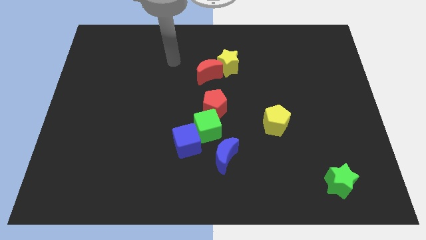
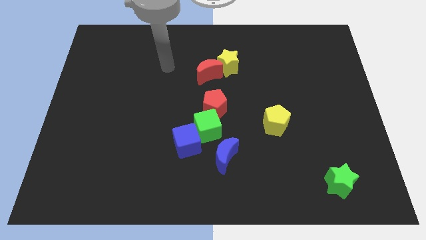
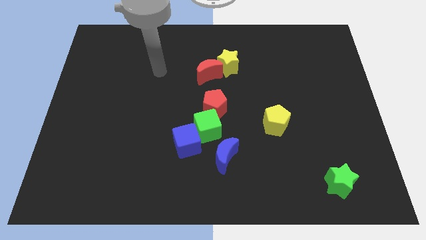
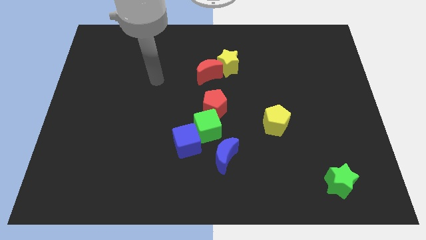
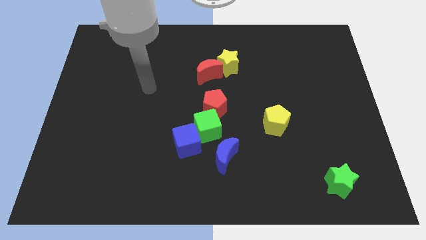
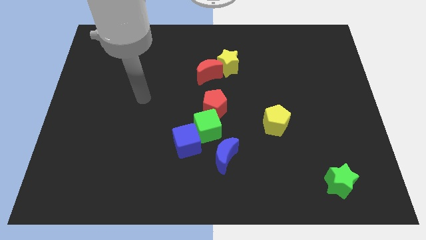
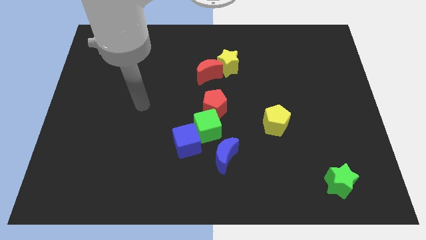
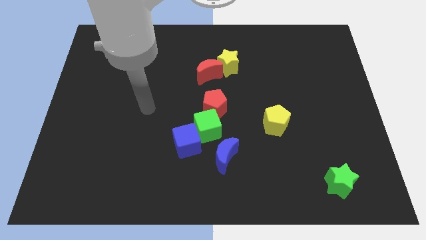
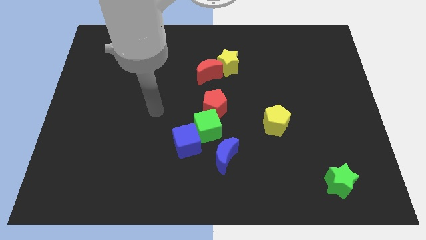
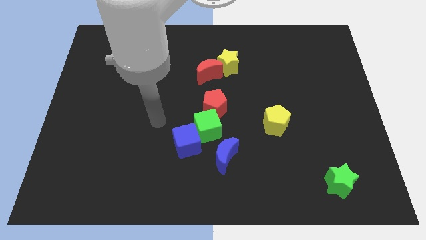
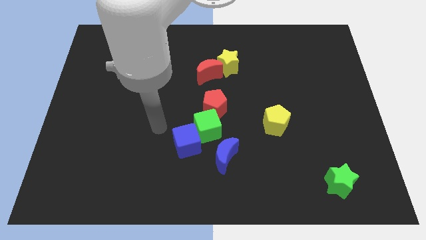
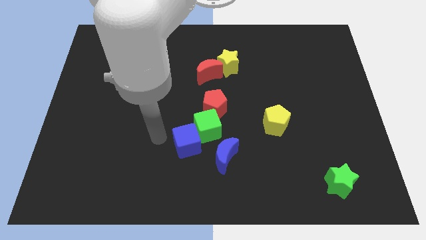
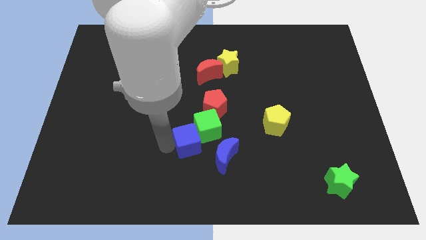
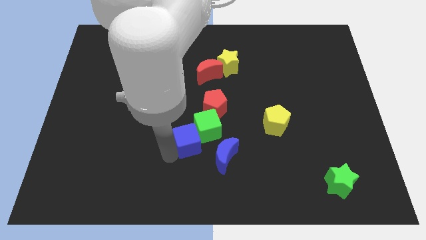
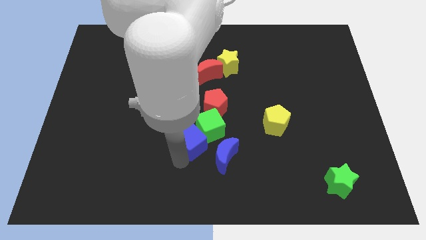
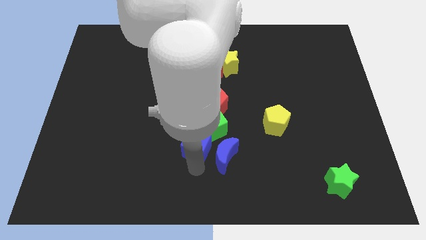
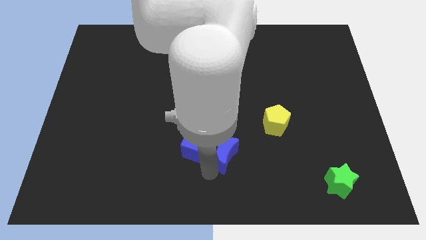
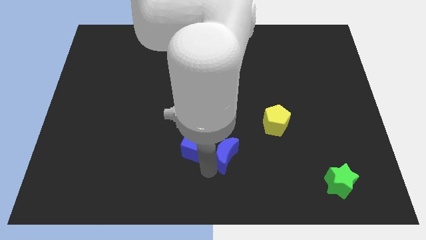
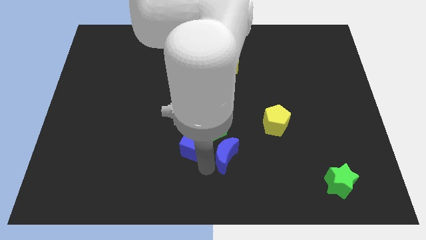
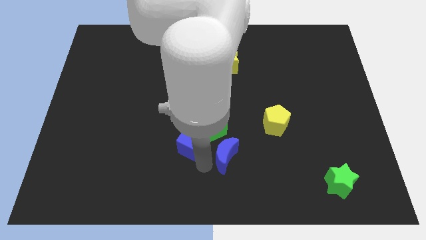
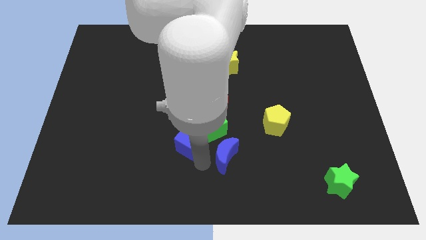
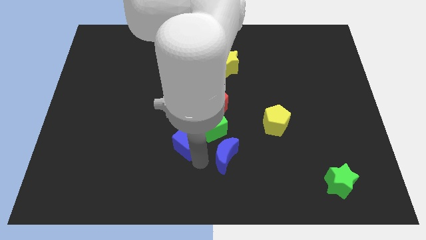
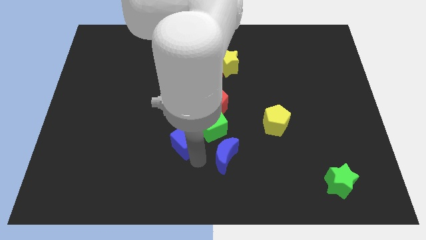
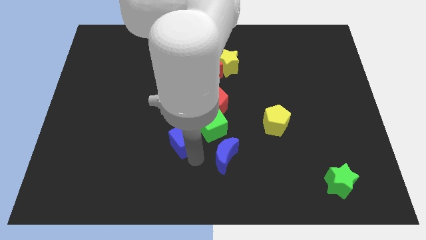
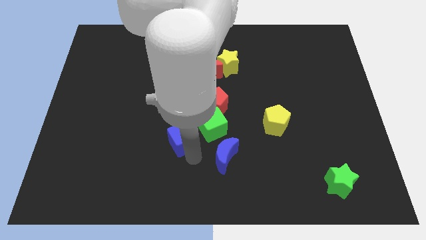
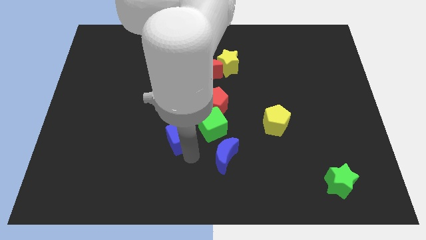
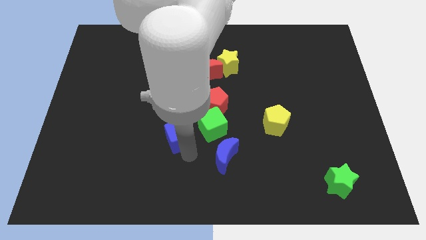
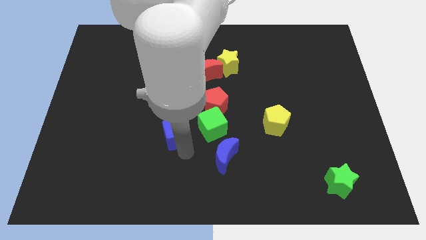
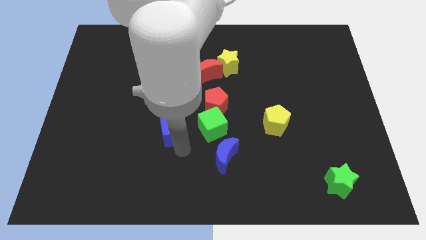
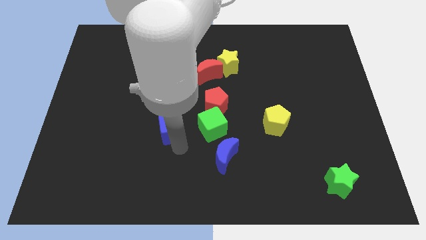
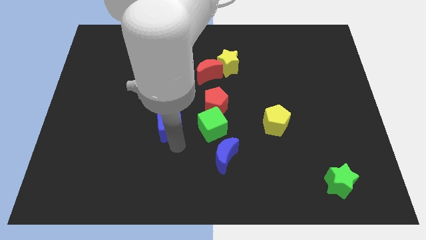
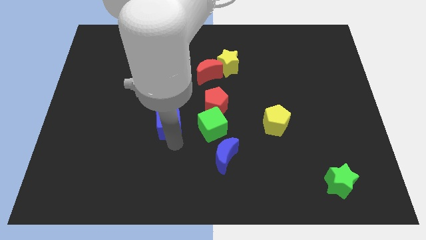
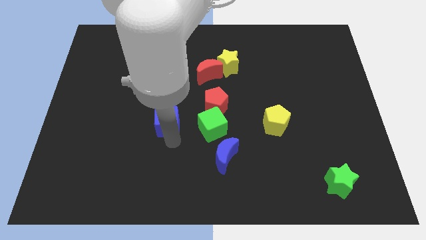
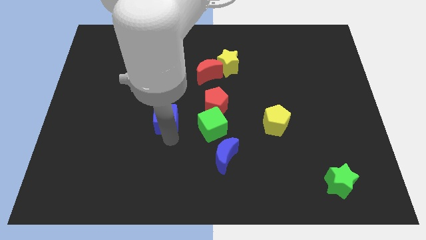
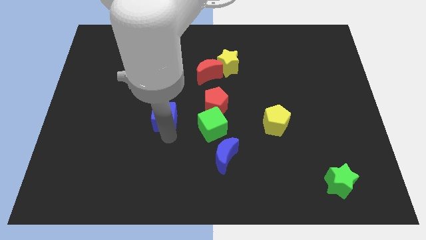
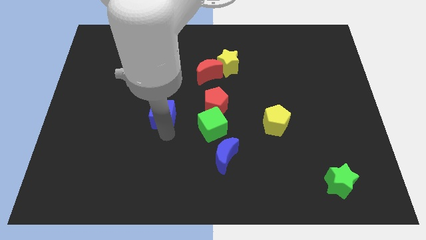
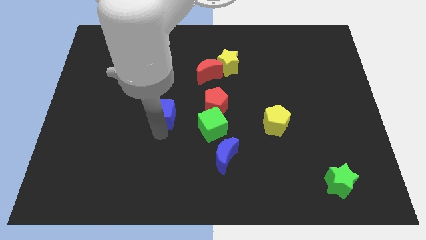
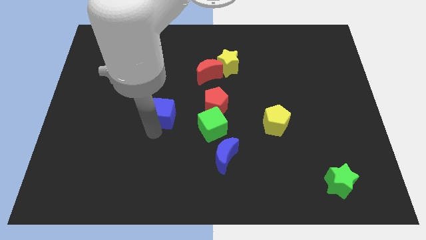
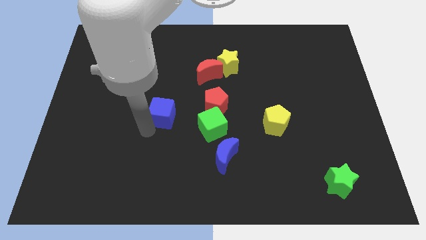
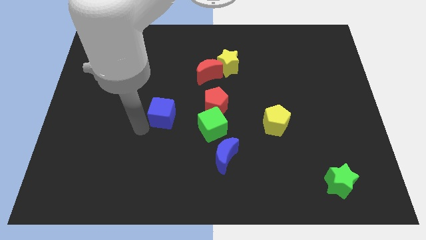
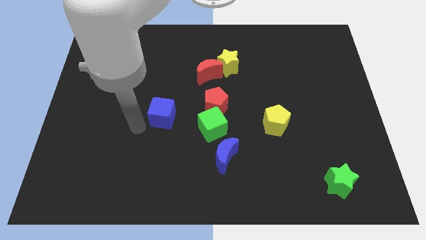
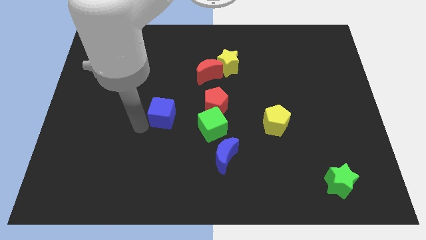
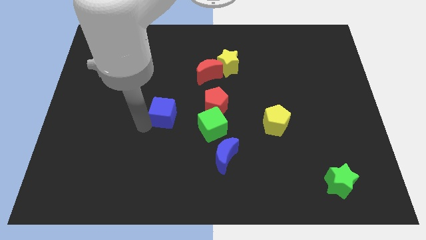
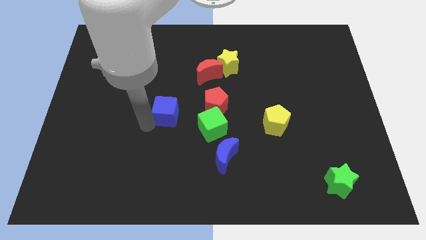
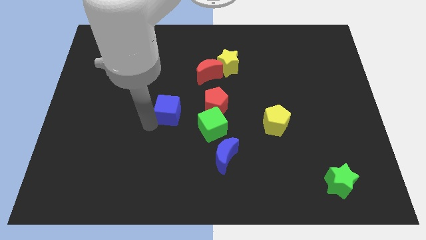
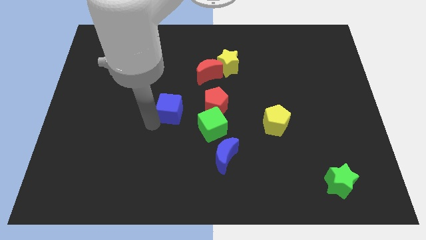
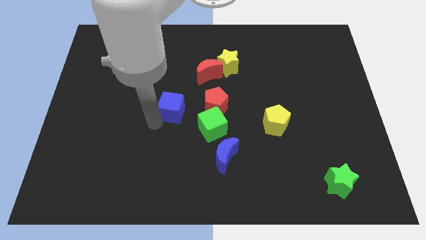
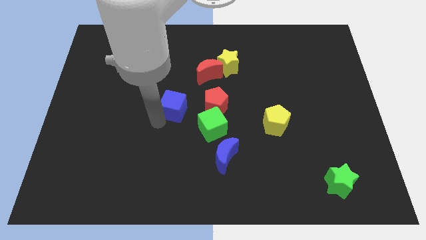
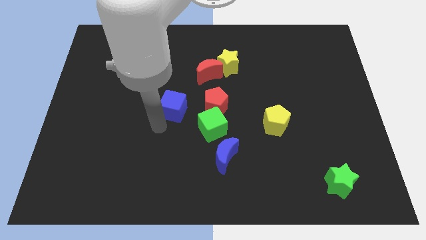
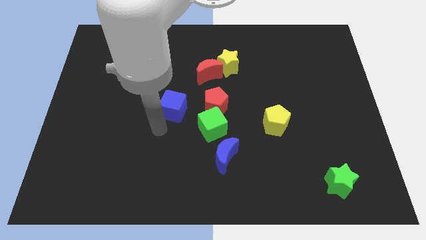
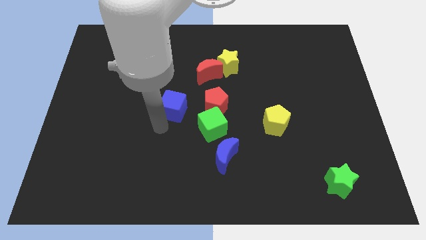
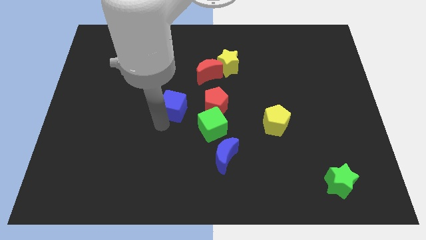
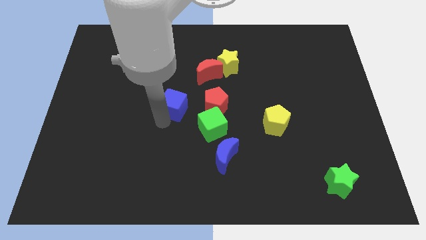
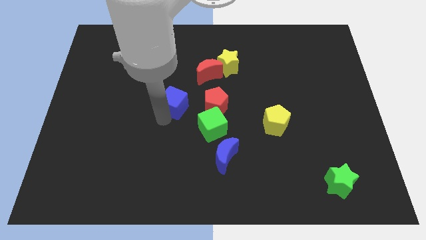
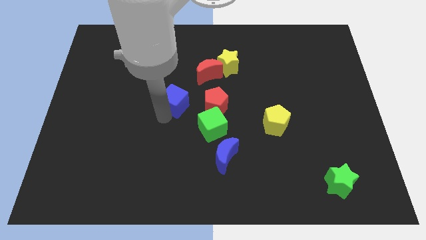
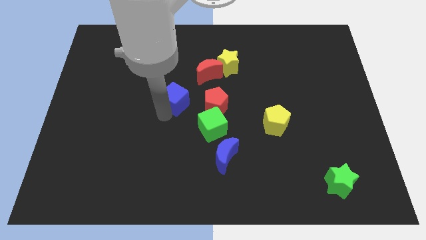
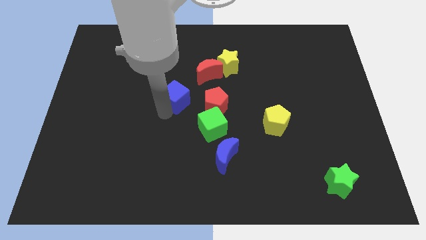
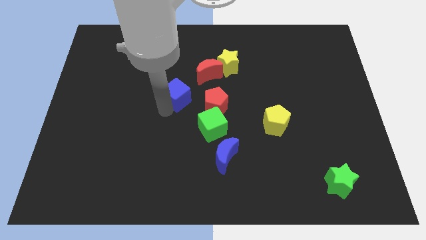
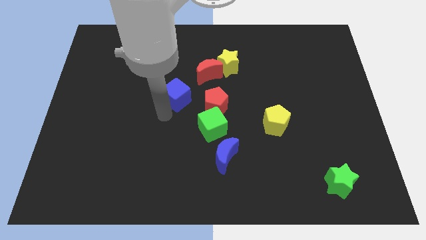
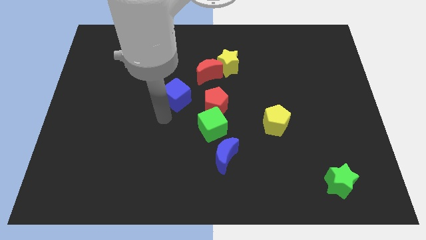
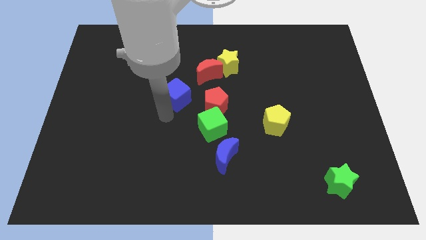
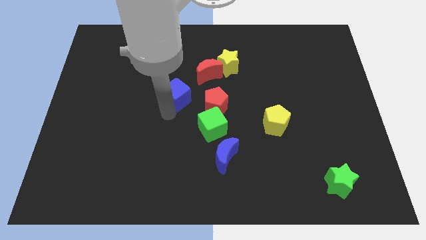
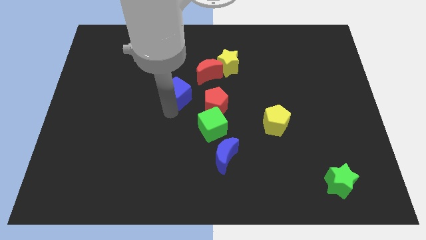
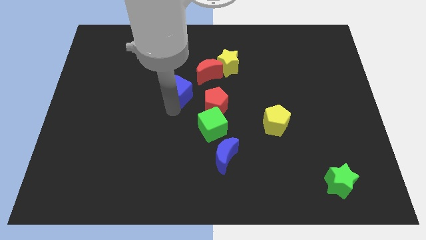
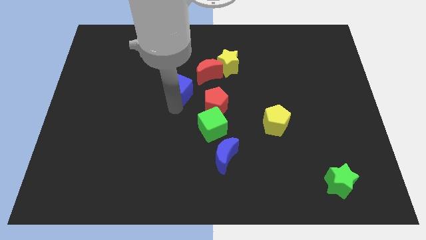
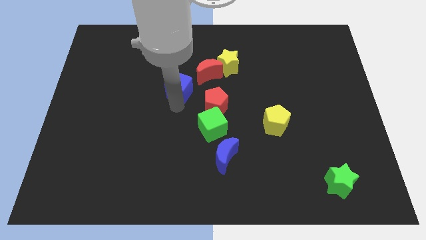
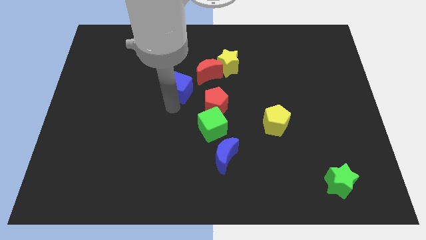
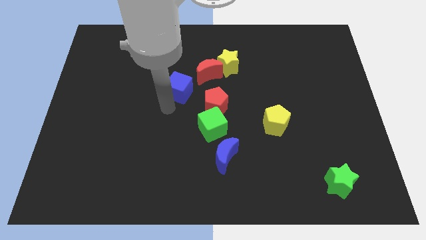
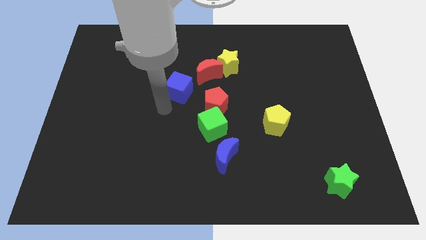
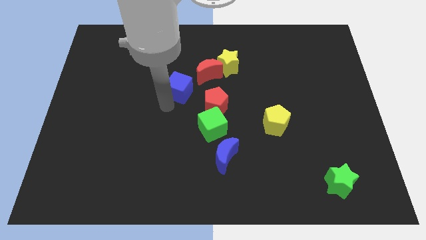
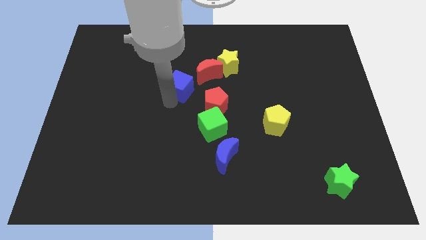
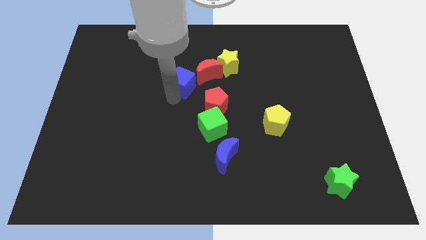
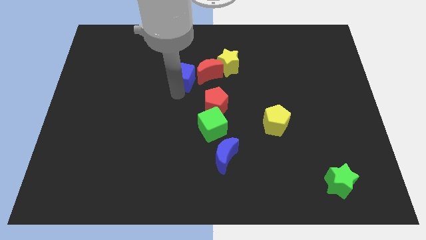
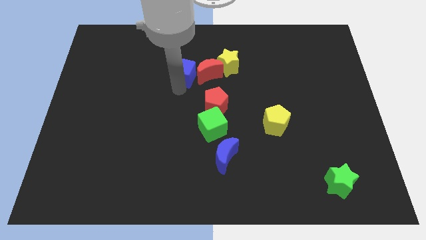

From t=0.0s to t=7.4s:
move the blue cube to the top left of the red moon
